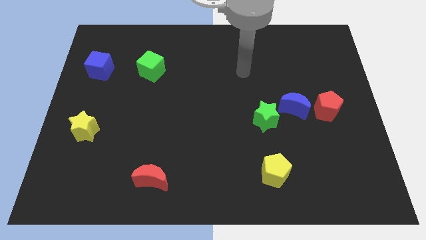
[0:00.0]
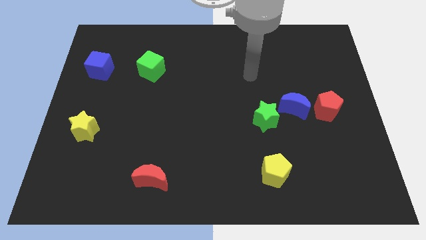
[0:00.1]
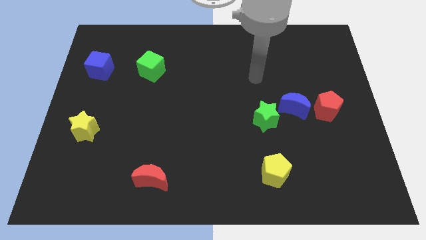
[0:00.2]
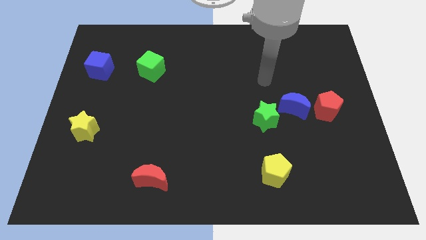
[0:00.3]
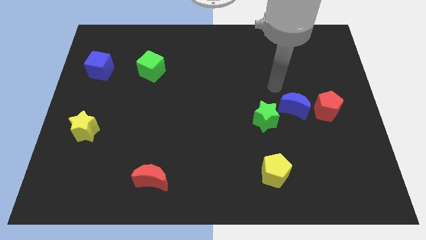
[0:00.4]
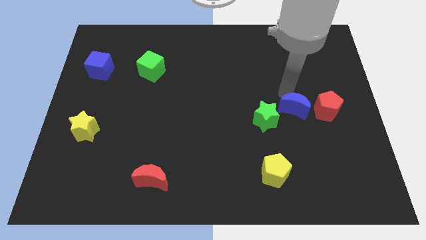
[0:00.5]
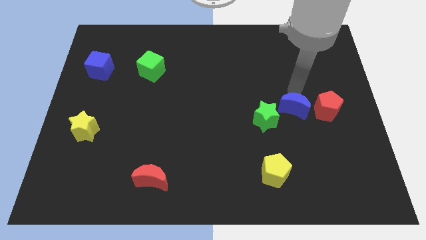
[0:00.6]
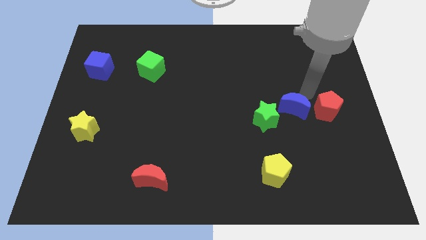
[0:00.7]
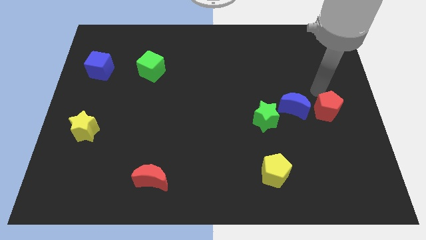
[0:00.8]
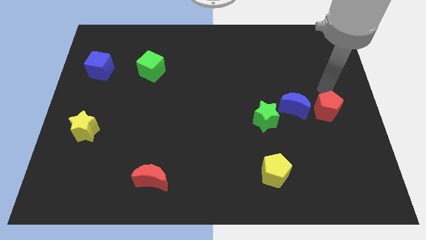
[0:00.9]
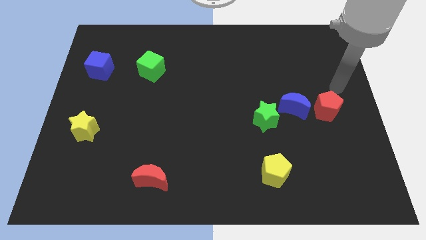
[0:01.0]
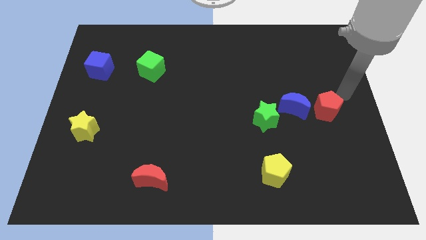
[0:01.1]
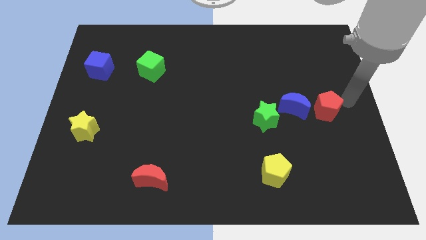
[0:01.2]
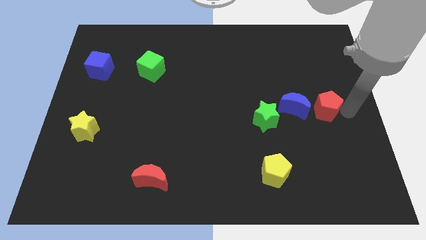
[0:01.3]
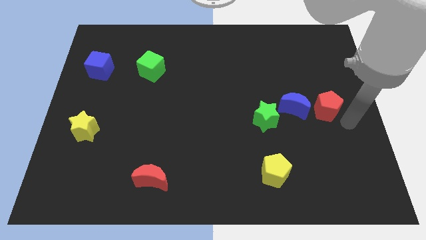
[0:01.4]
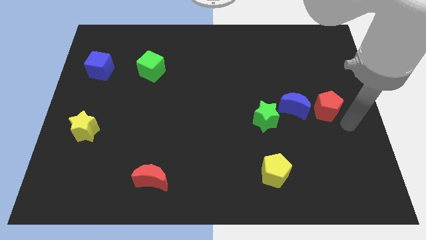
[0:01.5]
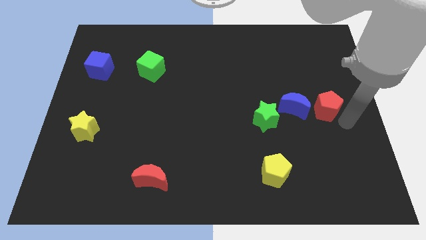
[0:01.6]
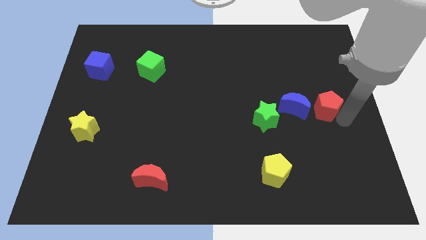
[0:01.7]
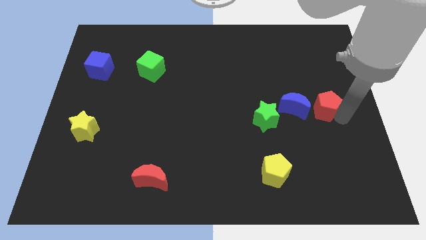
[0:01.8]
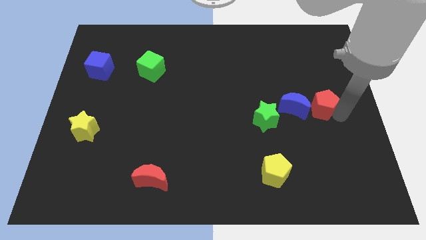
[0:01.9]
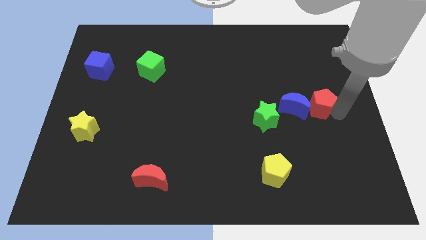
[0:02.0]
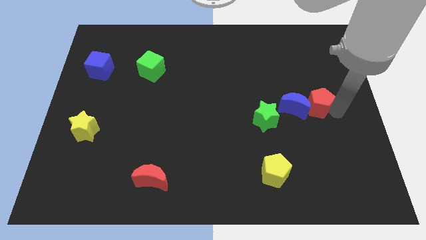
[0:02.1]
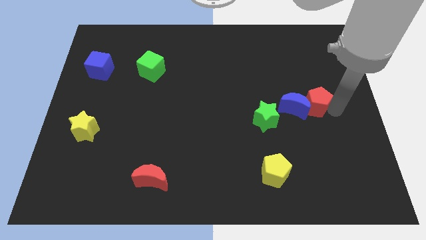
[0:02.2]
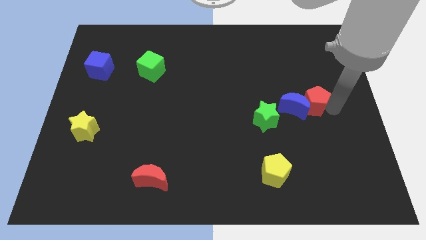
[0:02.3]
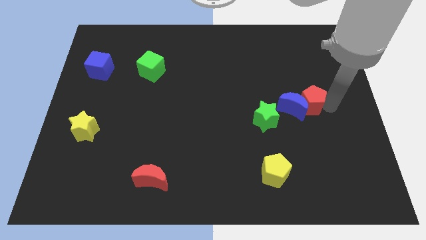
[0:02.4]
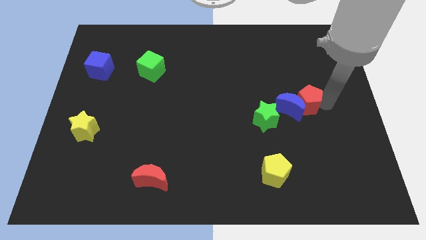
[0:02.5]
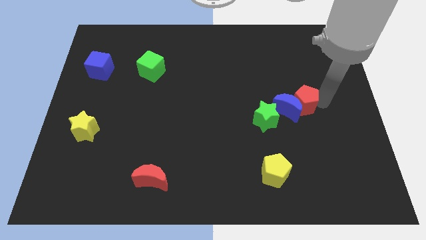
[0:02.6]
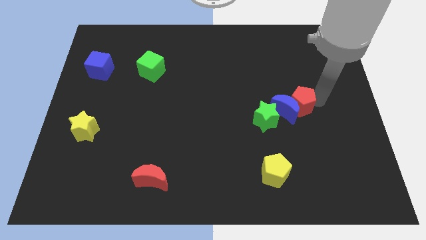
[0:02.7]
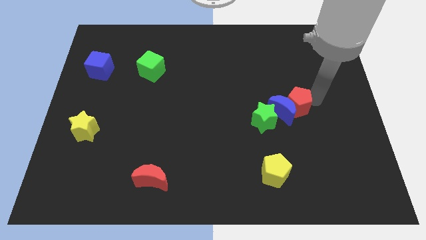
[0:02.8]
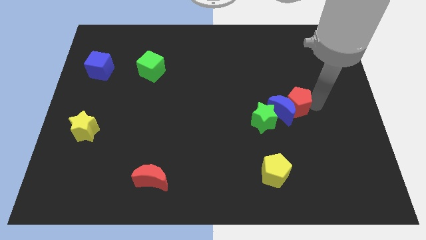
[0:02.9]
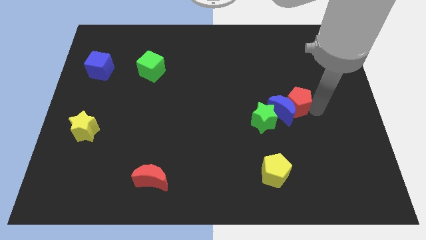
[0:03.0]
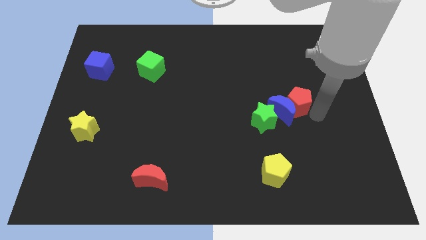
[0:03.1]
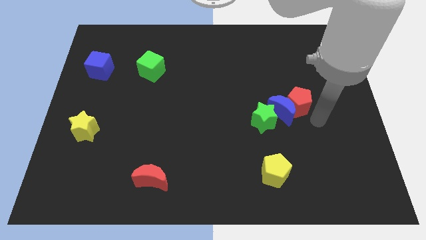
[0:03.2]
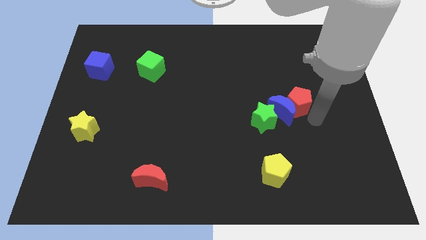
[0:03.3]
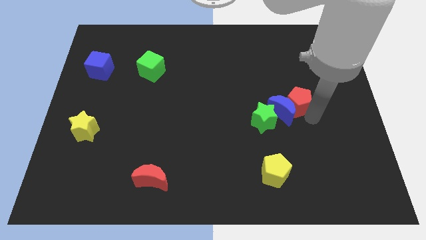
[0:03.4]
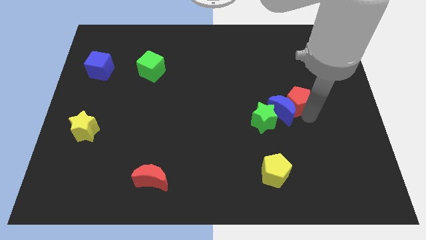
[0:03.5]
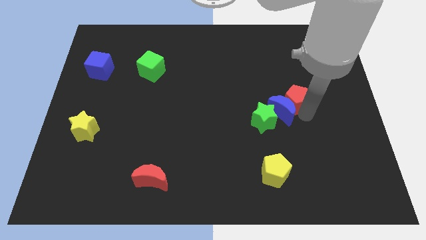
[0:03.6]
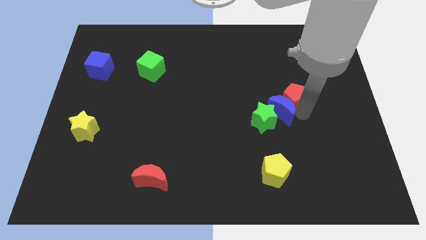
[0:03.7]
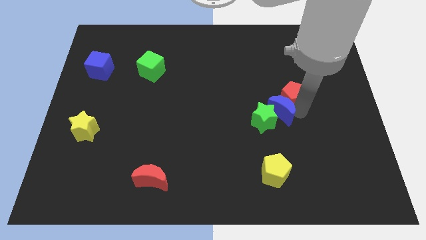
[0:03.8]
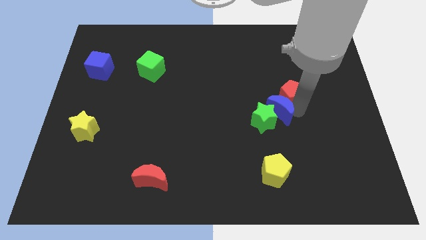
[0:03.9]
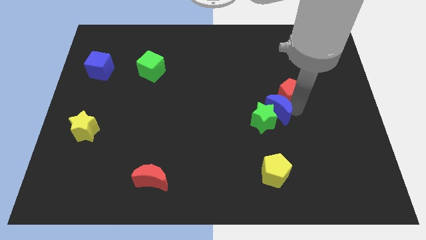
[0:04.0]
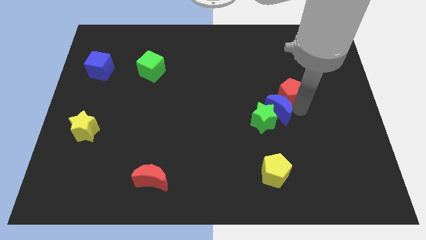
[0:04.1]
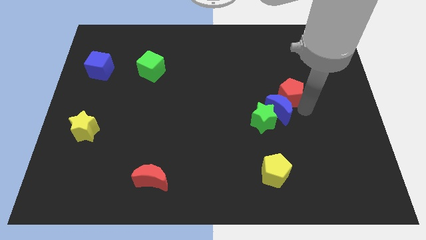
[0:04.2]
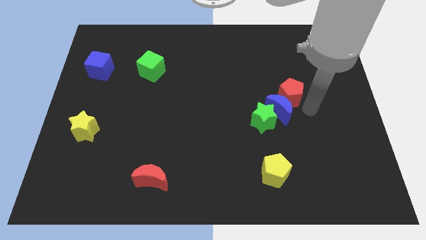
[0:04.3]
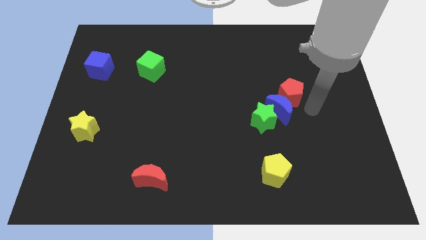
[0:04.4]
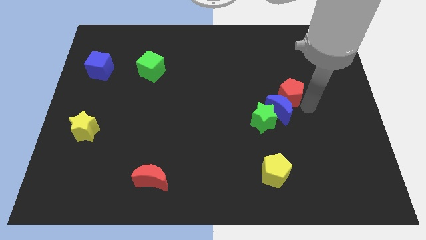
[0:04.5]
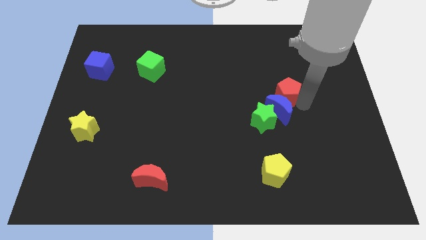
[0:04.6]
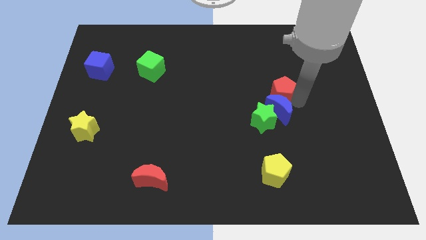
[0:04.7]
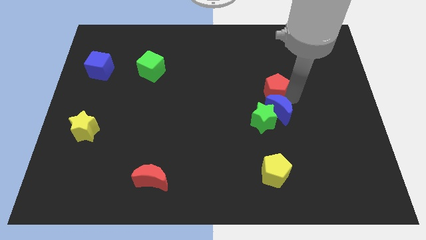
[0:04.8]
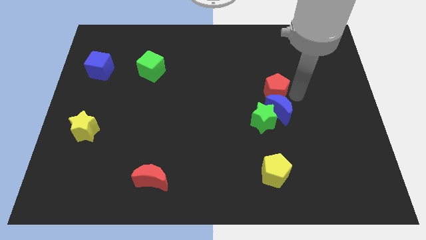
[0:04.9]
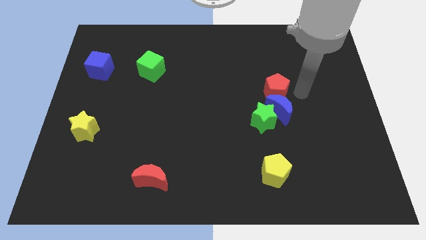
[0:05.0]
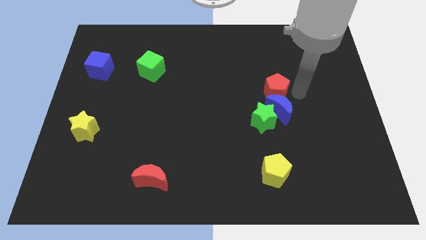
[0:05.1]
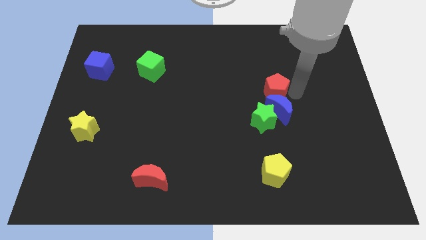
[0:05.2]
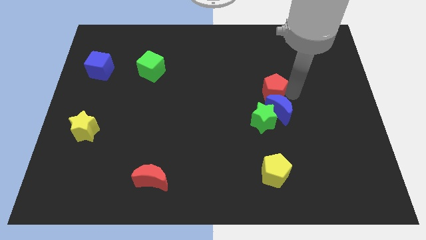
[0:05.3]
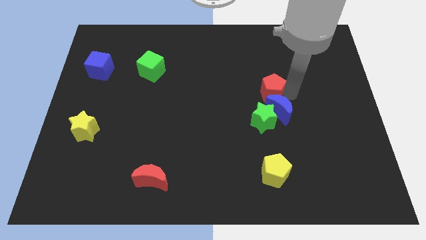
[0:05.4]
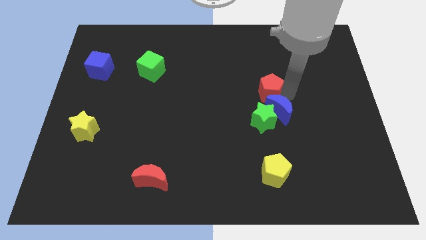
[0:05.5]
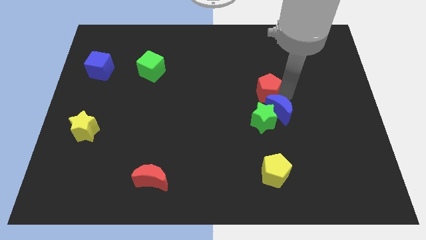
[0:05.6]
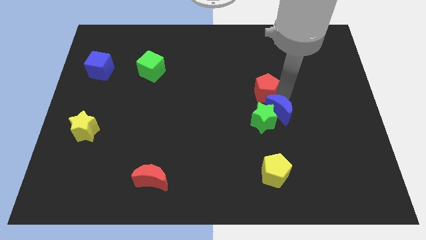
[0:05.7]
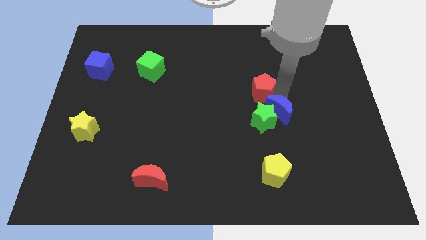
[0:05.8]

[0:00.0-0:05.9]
move the red pentagon to the middle
